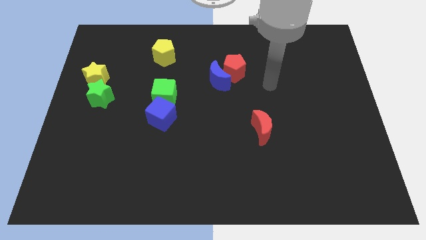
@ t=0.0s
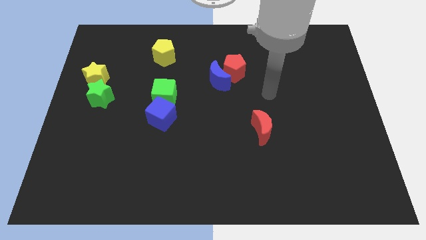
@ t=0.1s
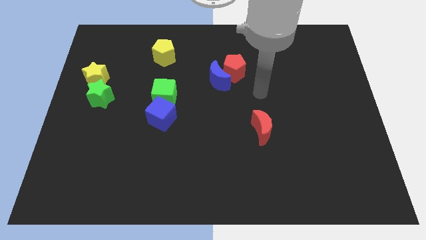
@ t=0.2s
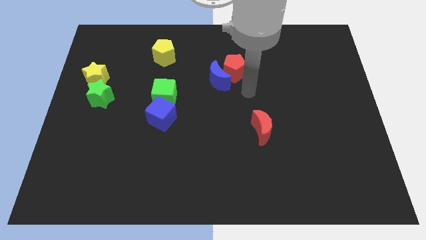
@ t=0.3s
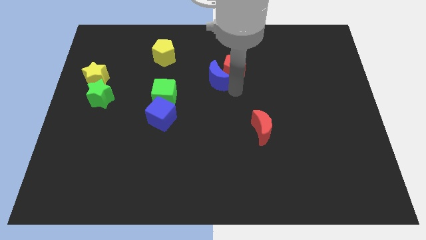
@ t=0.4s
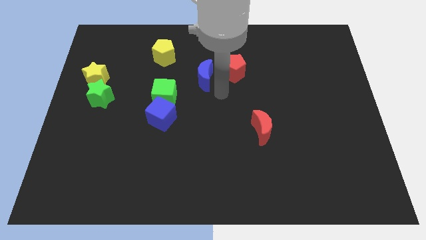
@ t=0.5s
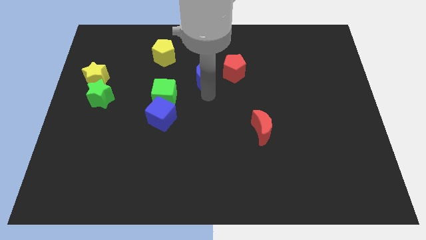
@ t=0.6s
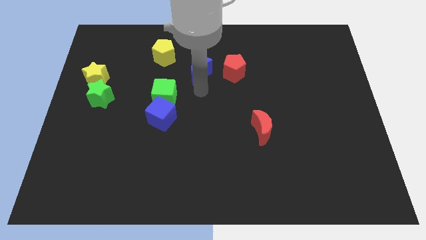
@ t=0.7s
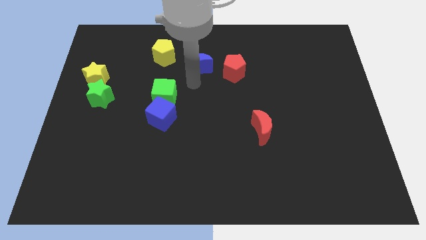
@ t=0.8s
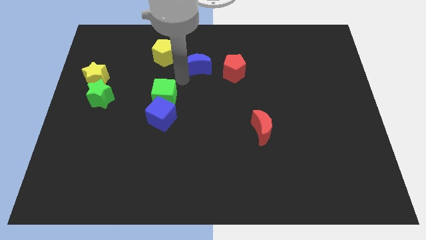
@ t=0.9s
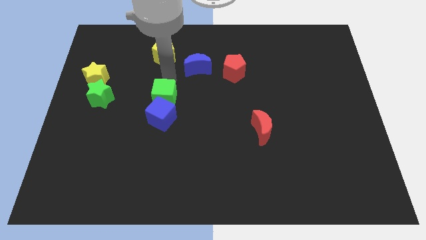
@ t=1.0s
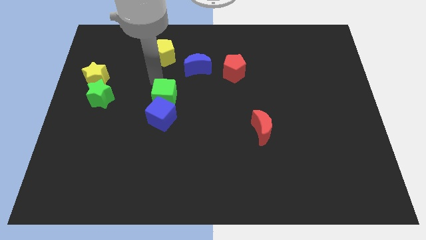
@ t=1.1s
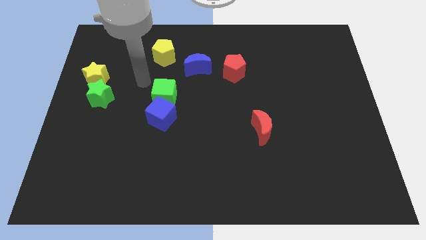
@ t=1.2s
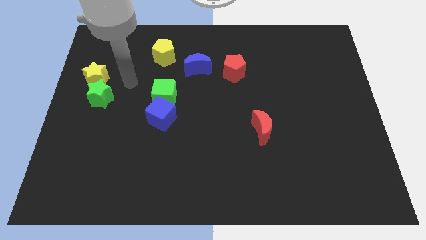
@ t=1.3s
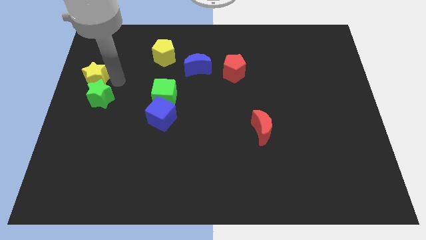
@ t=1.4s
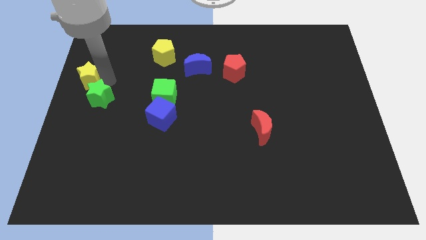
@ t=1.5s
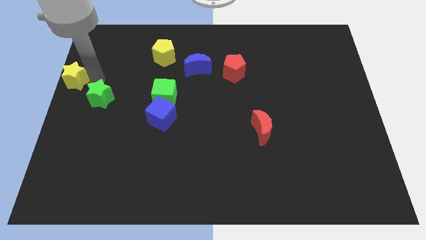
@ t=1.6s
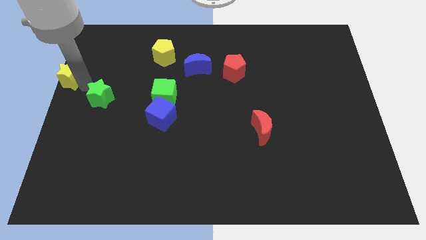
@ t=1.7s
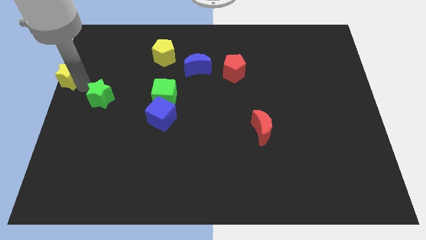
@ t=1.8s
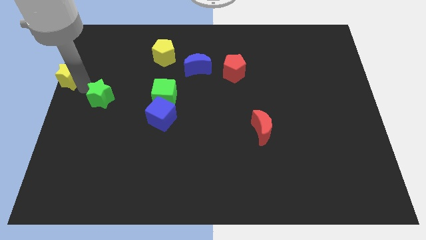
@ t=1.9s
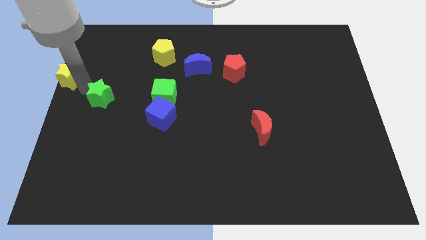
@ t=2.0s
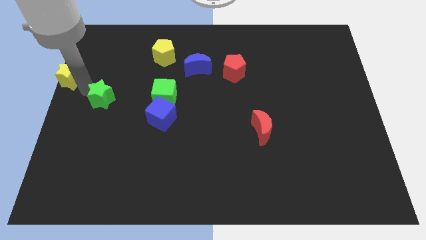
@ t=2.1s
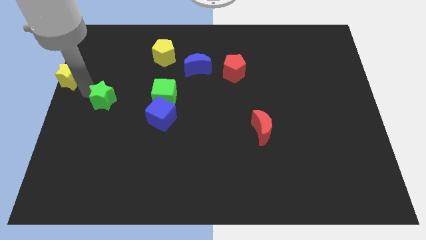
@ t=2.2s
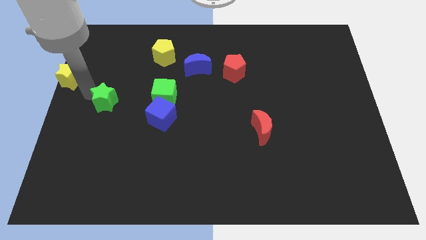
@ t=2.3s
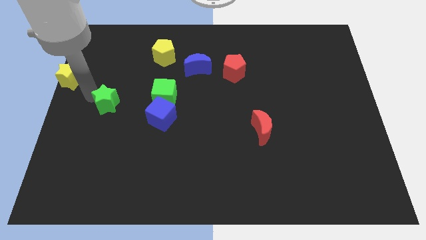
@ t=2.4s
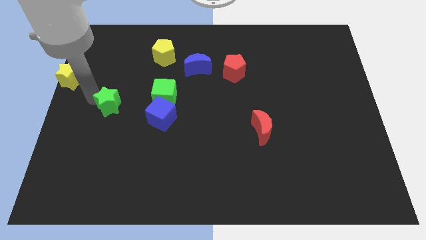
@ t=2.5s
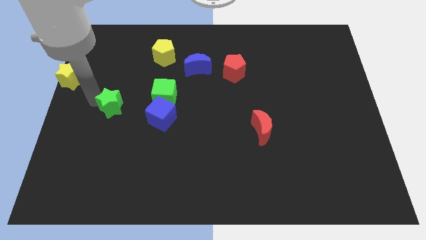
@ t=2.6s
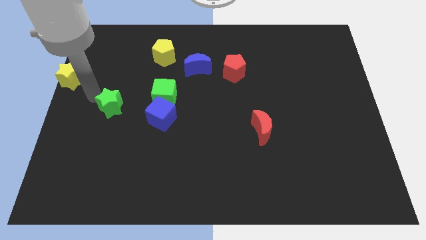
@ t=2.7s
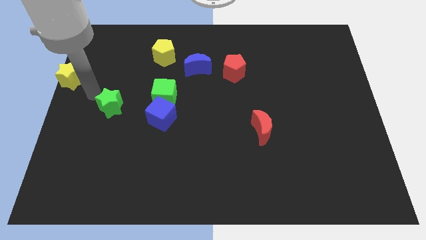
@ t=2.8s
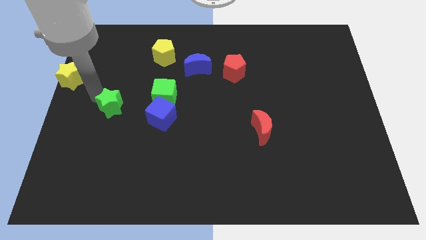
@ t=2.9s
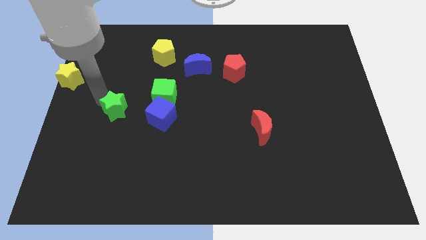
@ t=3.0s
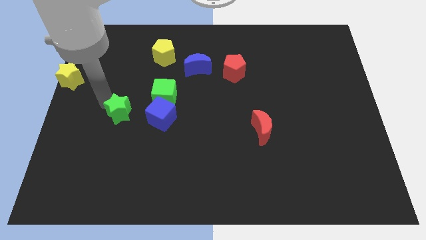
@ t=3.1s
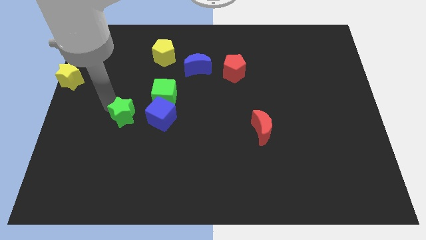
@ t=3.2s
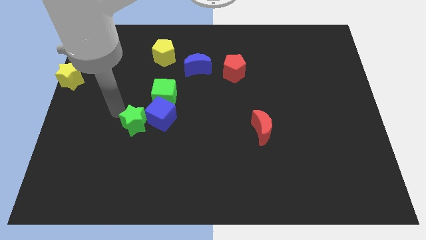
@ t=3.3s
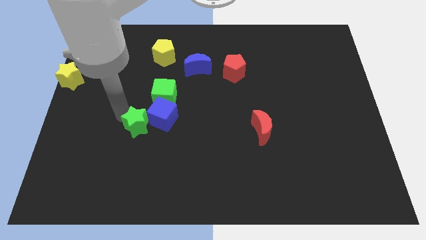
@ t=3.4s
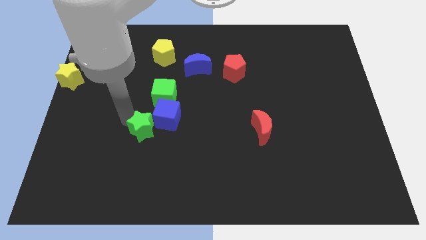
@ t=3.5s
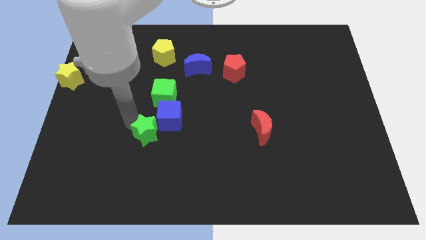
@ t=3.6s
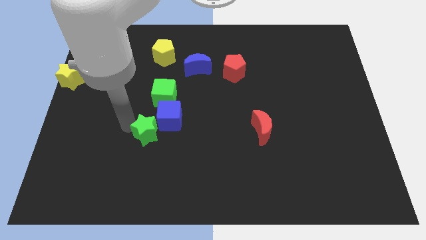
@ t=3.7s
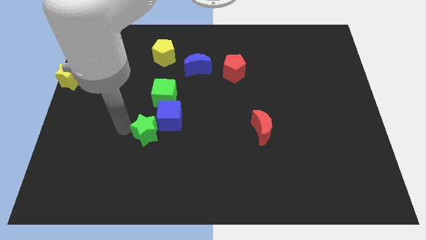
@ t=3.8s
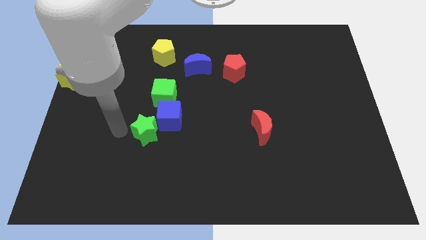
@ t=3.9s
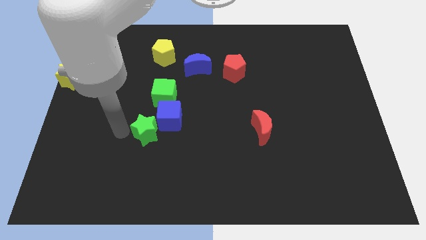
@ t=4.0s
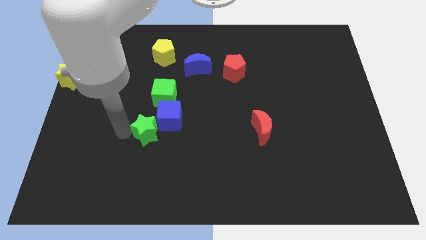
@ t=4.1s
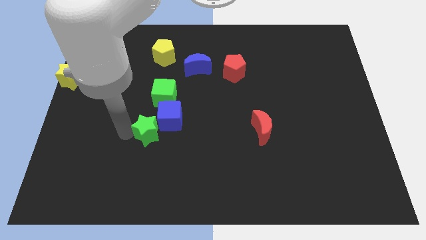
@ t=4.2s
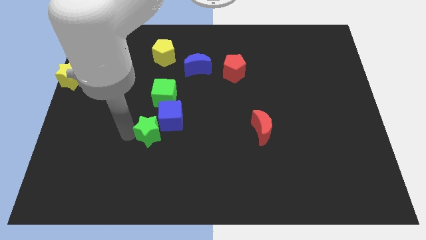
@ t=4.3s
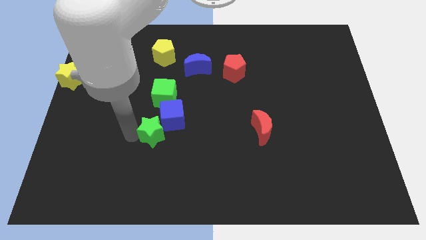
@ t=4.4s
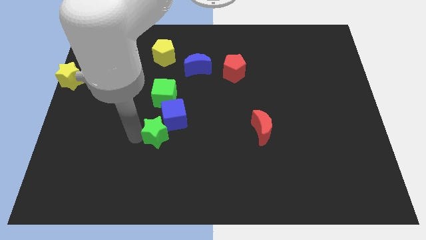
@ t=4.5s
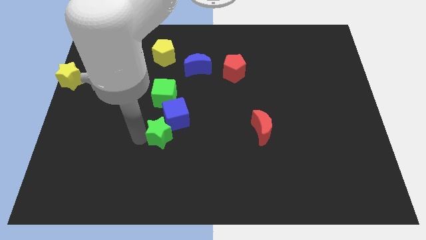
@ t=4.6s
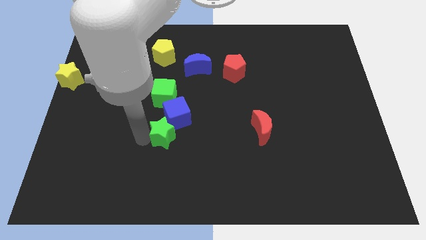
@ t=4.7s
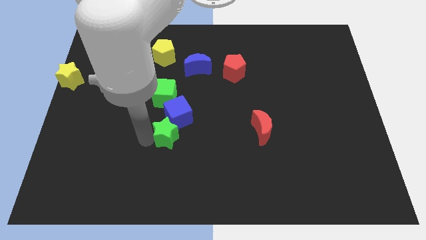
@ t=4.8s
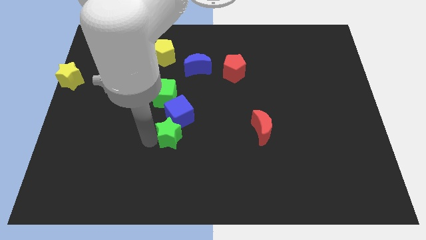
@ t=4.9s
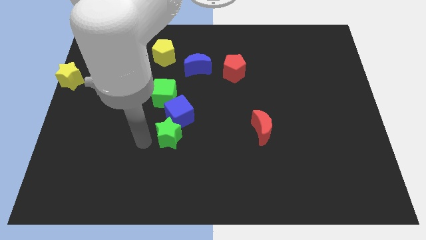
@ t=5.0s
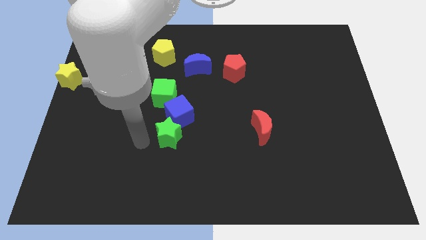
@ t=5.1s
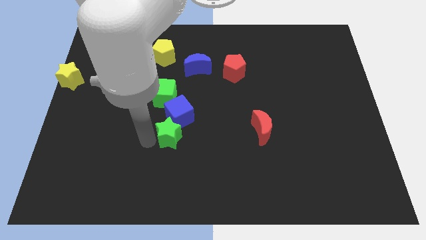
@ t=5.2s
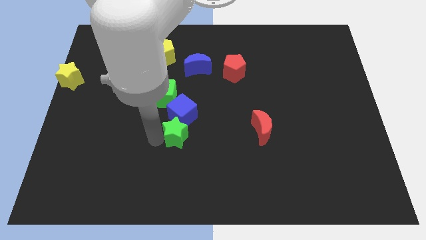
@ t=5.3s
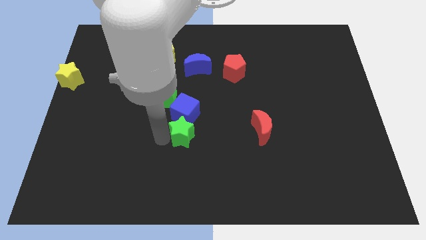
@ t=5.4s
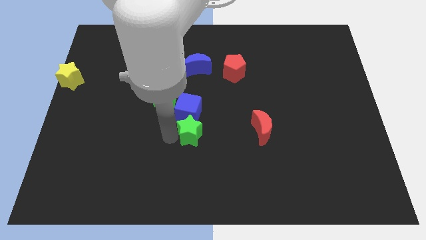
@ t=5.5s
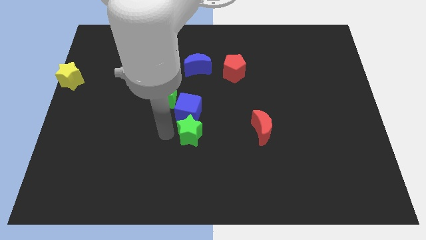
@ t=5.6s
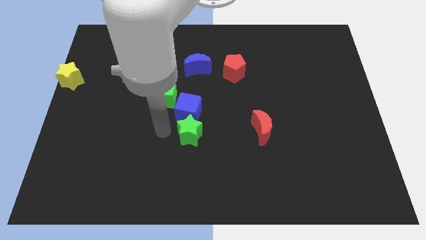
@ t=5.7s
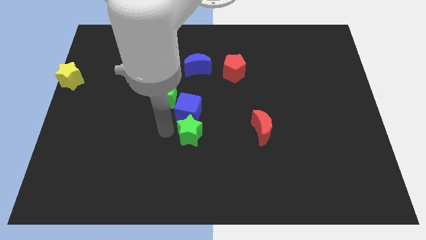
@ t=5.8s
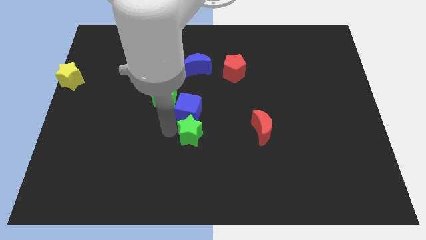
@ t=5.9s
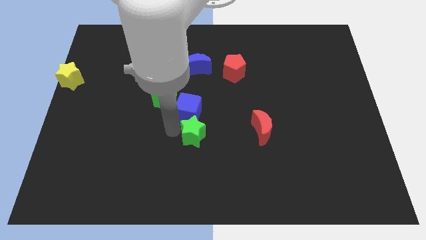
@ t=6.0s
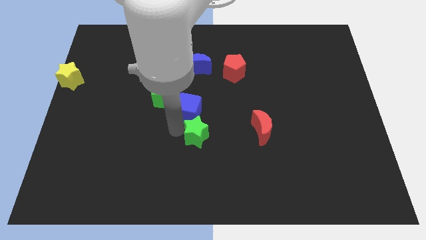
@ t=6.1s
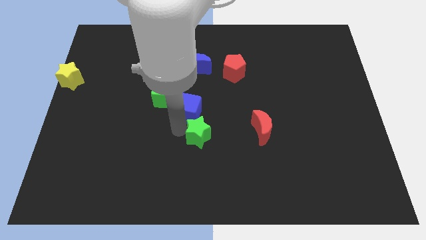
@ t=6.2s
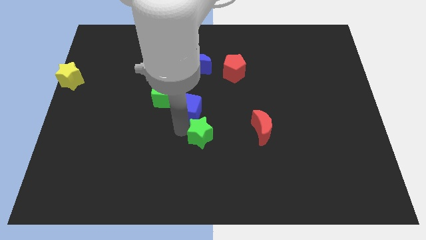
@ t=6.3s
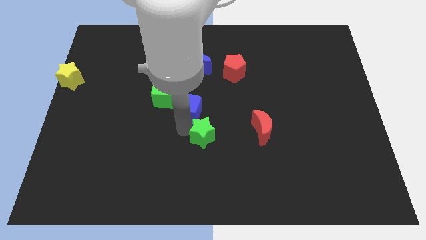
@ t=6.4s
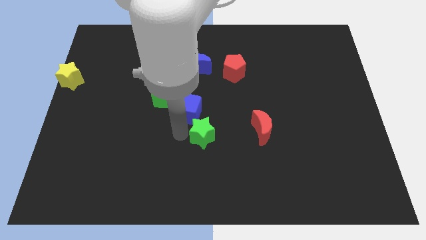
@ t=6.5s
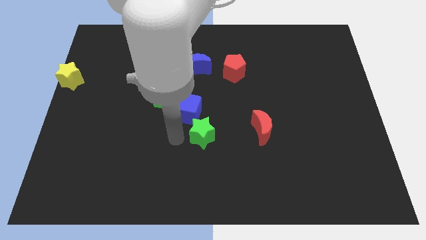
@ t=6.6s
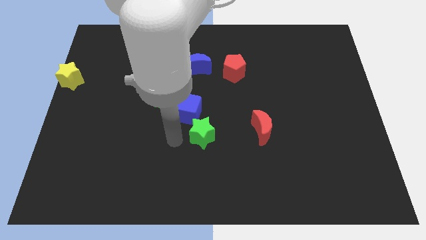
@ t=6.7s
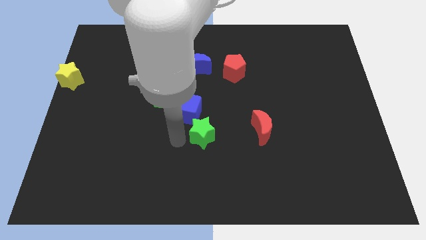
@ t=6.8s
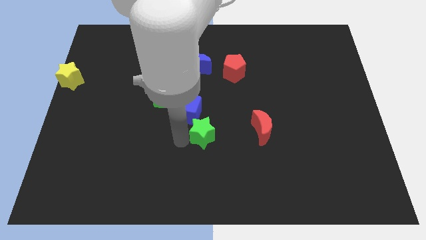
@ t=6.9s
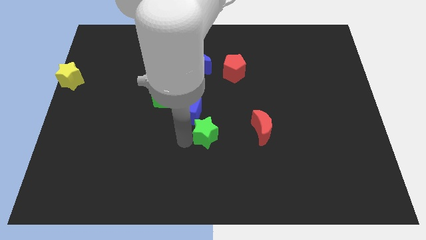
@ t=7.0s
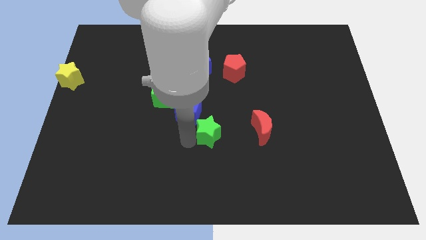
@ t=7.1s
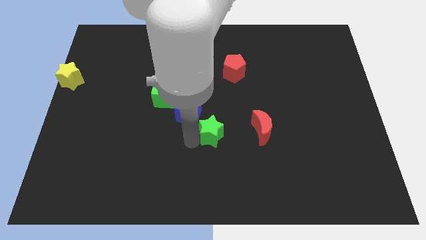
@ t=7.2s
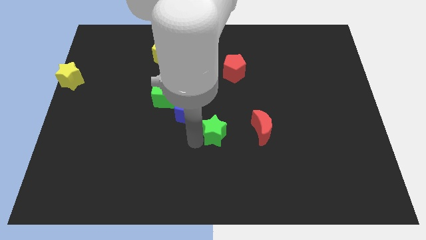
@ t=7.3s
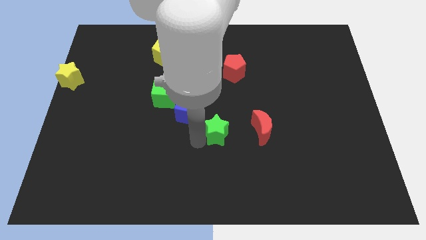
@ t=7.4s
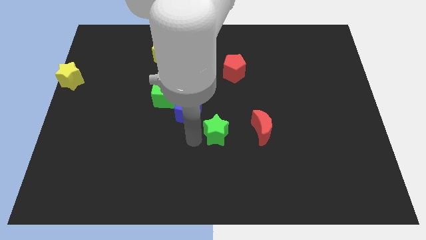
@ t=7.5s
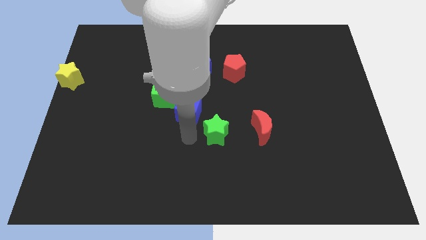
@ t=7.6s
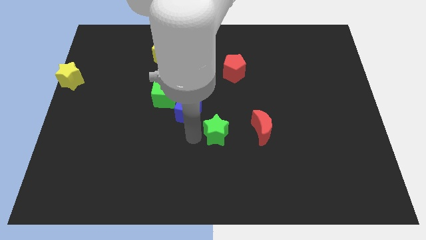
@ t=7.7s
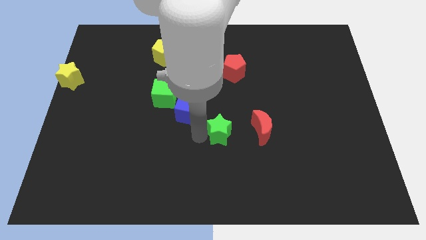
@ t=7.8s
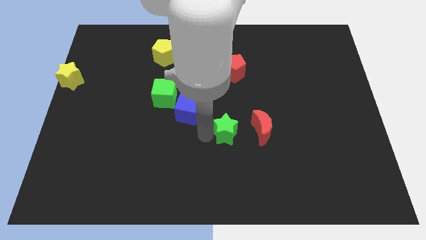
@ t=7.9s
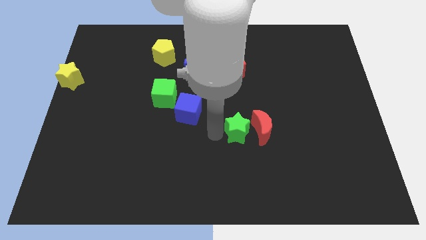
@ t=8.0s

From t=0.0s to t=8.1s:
put the green star close to the red moon
